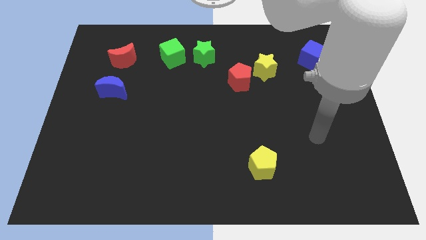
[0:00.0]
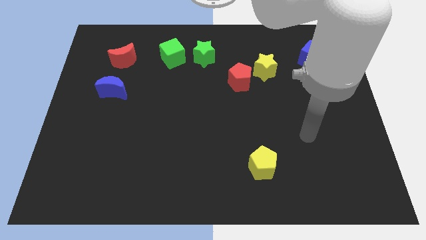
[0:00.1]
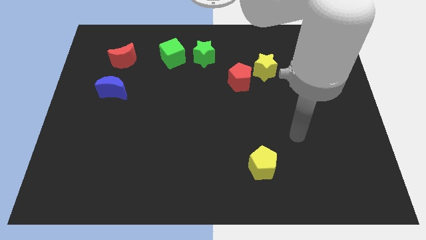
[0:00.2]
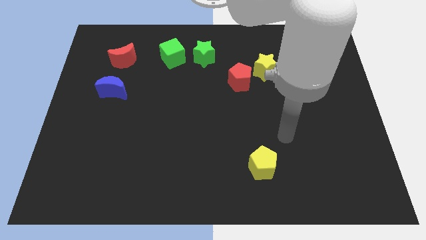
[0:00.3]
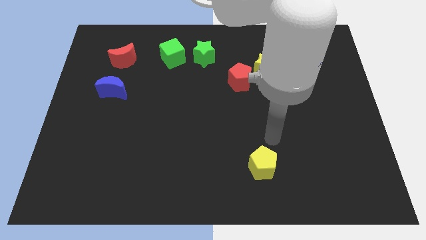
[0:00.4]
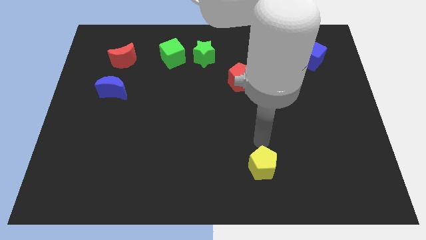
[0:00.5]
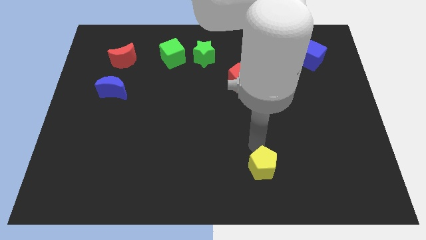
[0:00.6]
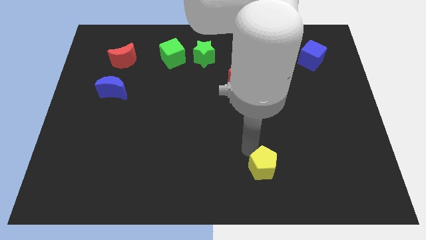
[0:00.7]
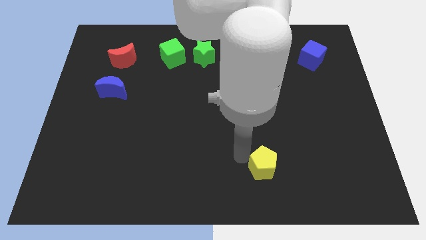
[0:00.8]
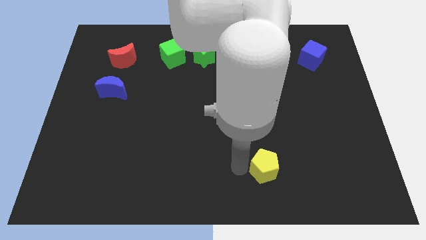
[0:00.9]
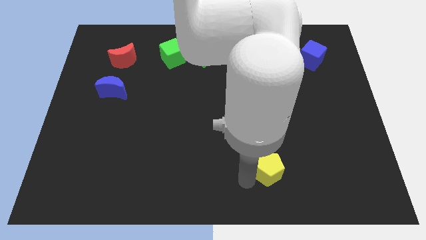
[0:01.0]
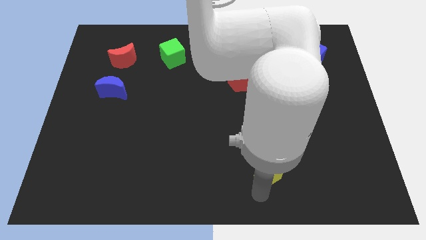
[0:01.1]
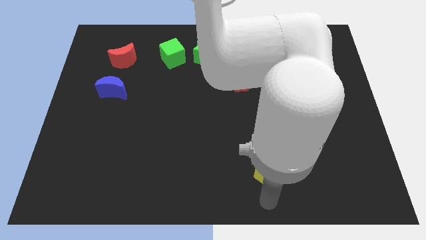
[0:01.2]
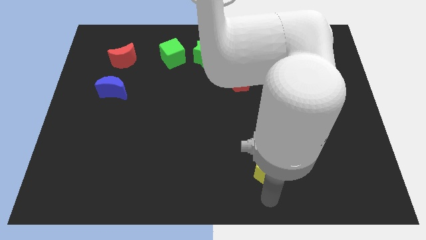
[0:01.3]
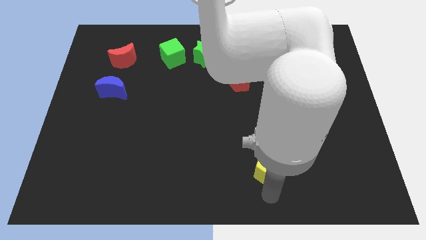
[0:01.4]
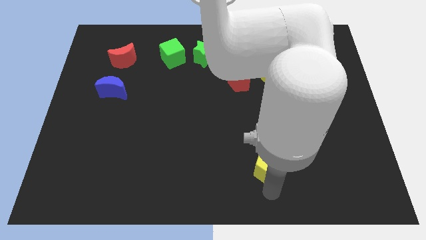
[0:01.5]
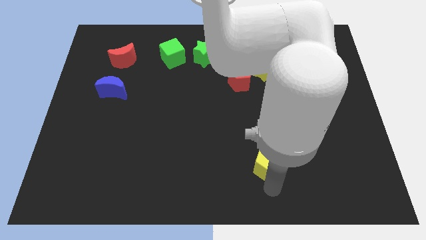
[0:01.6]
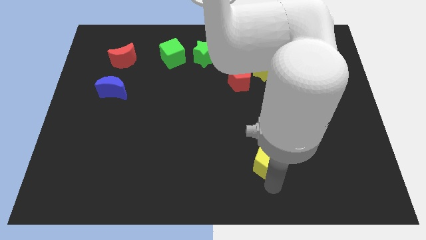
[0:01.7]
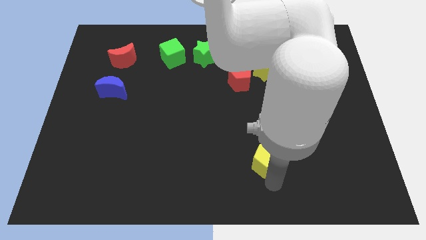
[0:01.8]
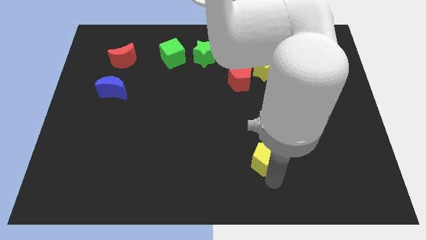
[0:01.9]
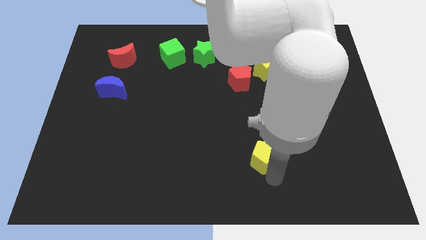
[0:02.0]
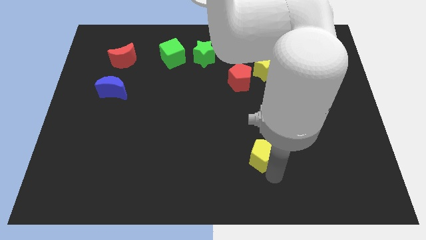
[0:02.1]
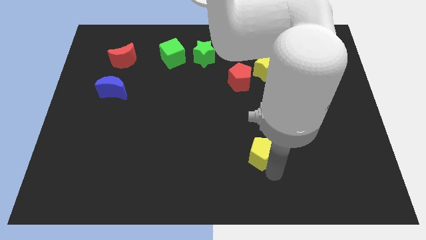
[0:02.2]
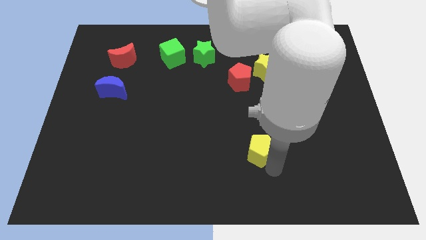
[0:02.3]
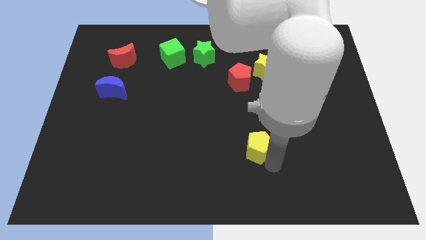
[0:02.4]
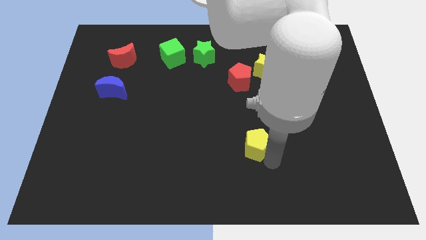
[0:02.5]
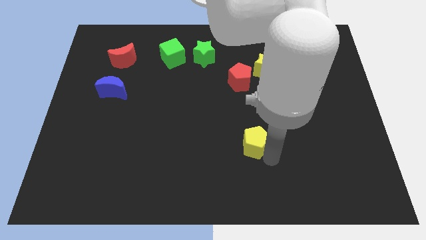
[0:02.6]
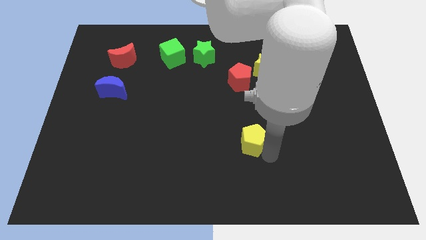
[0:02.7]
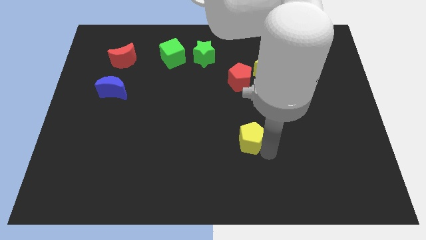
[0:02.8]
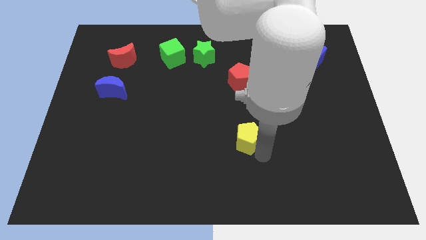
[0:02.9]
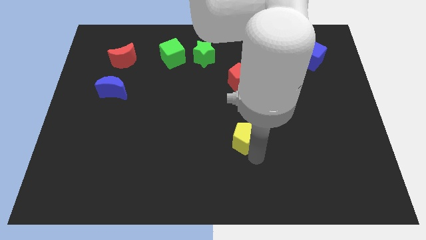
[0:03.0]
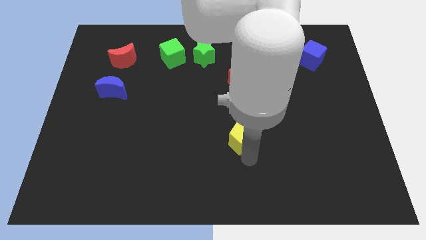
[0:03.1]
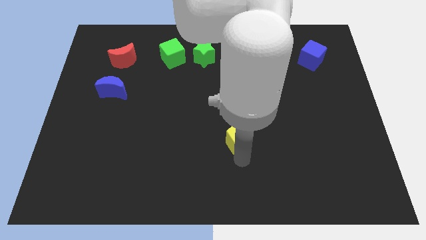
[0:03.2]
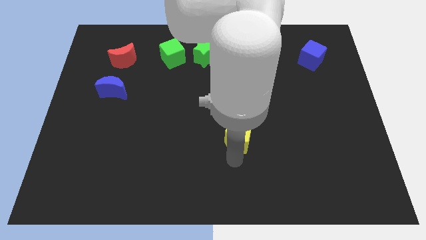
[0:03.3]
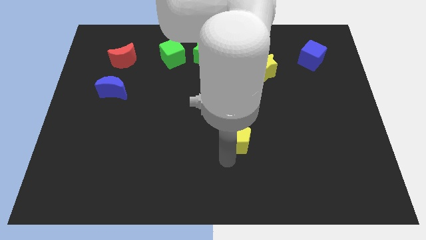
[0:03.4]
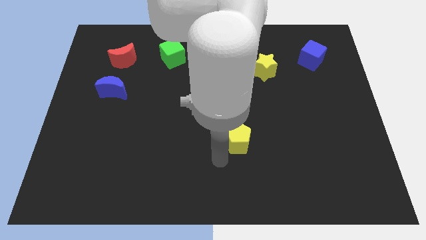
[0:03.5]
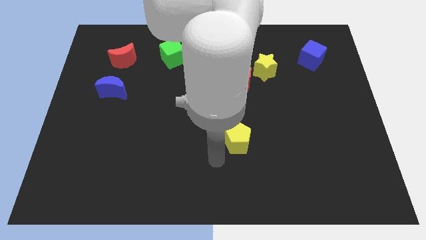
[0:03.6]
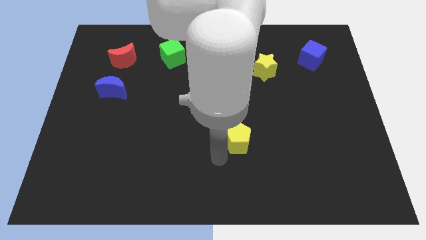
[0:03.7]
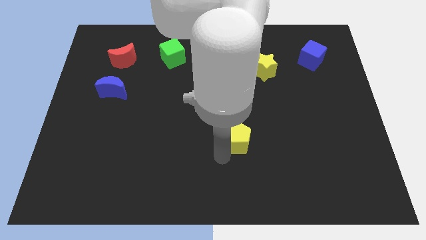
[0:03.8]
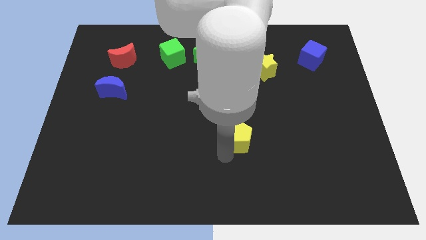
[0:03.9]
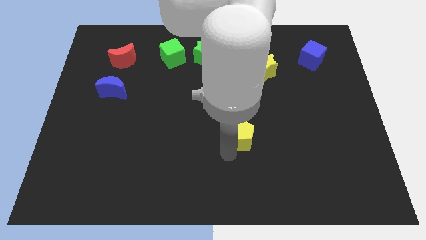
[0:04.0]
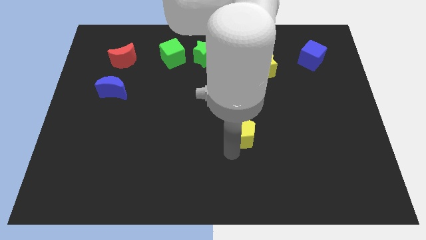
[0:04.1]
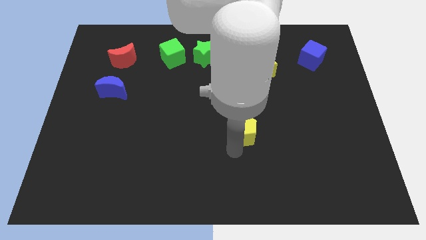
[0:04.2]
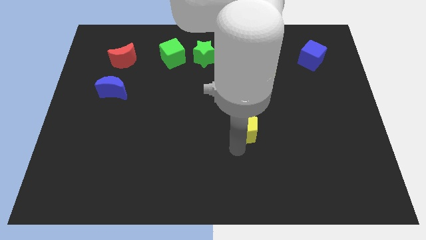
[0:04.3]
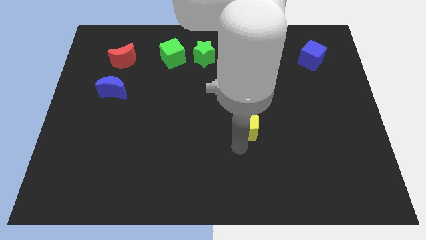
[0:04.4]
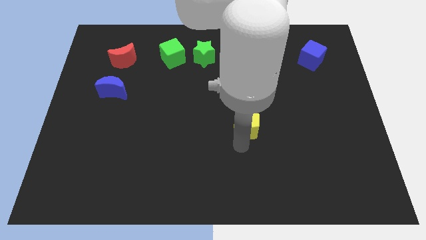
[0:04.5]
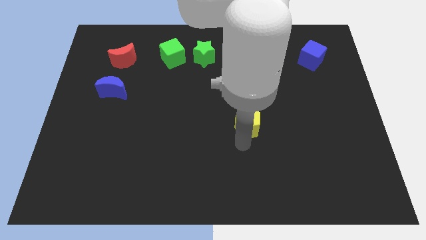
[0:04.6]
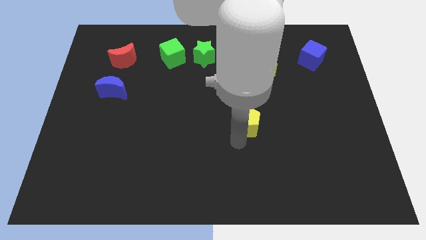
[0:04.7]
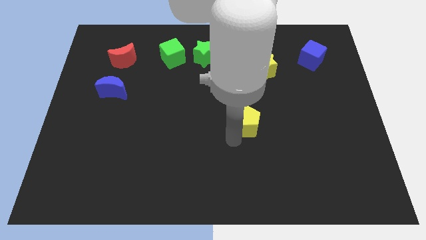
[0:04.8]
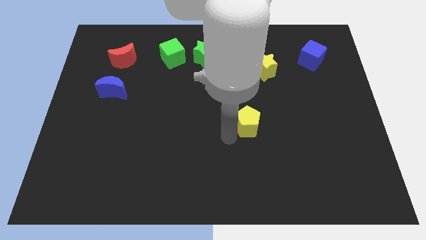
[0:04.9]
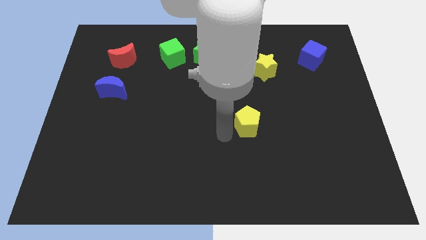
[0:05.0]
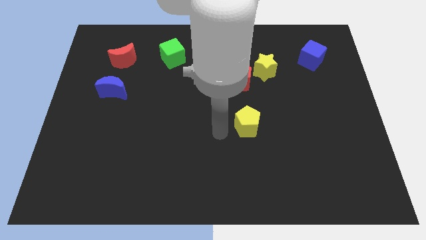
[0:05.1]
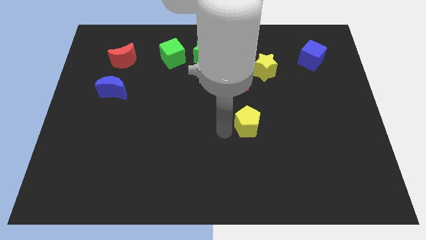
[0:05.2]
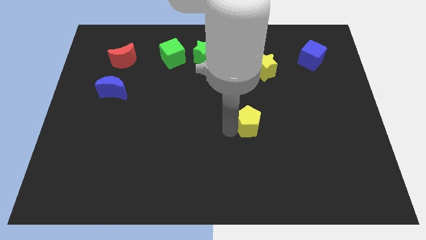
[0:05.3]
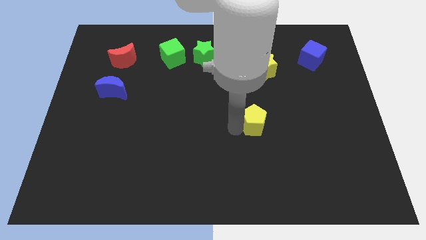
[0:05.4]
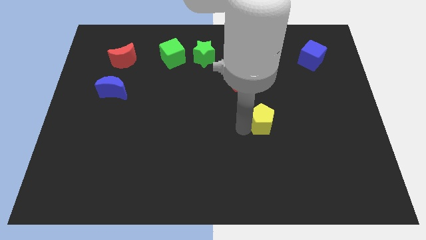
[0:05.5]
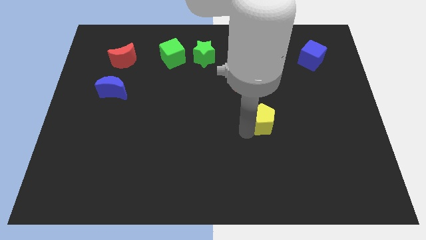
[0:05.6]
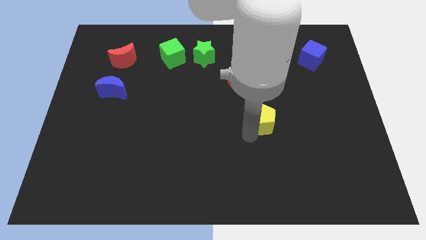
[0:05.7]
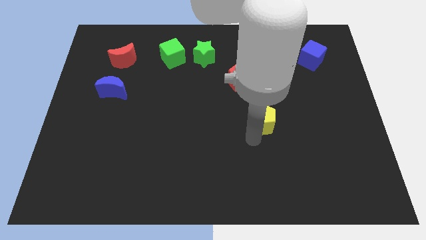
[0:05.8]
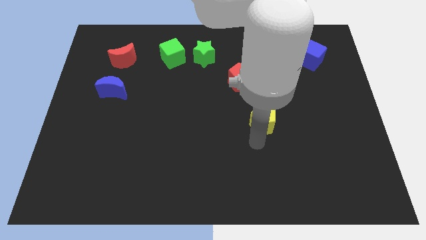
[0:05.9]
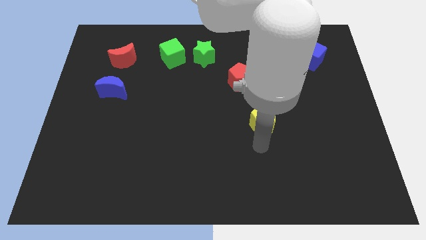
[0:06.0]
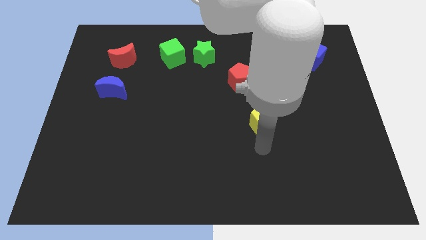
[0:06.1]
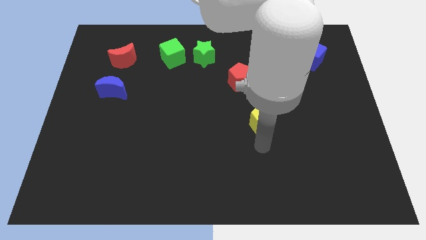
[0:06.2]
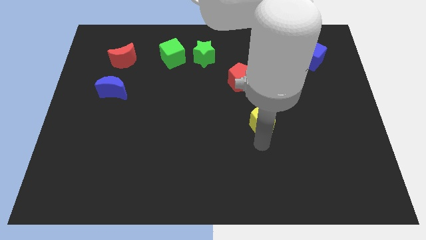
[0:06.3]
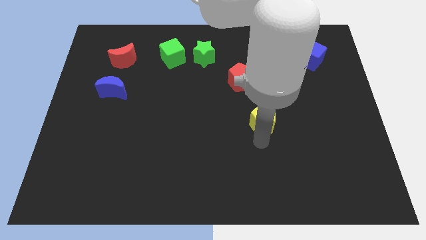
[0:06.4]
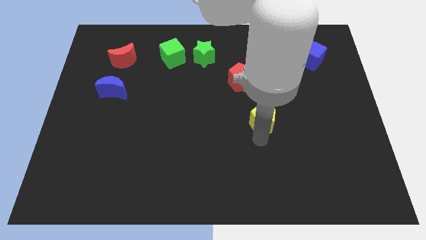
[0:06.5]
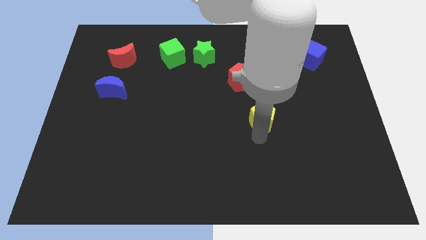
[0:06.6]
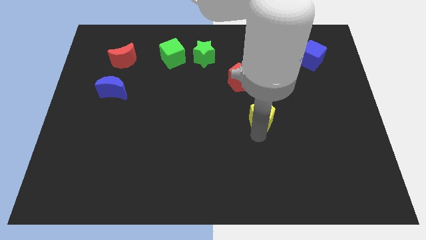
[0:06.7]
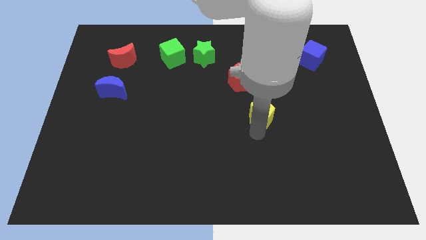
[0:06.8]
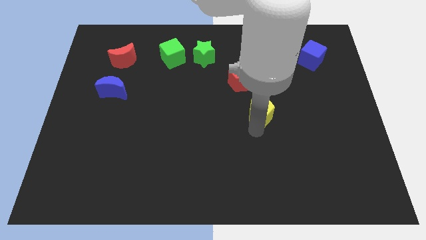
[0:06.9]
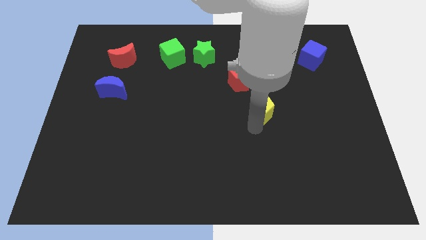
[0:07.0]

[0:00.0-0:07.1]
slide the yellow pentagon diagonally down and to the right of the red pentagon

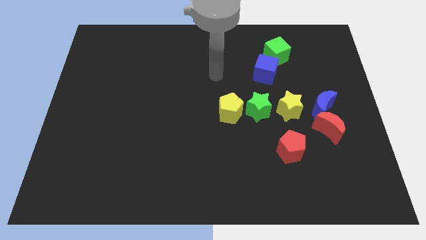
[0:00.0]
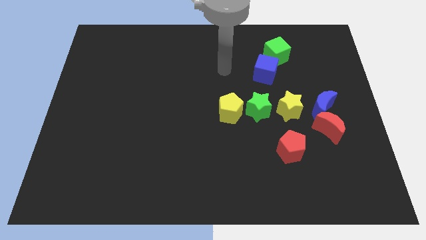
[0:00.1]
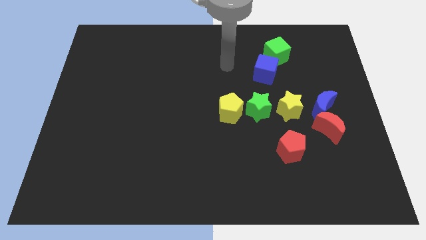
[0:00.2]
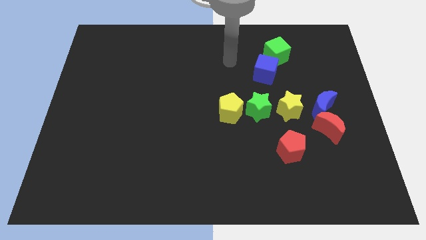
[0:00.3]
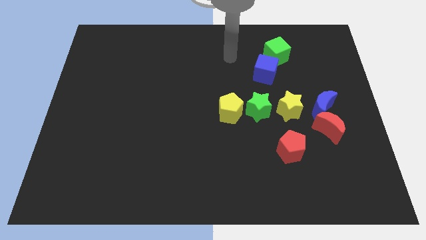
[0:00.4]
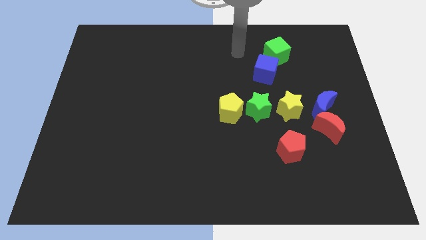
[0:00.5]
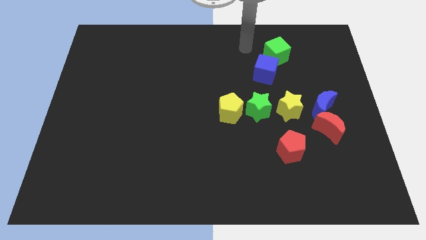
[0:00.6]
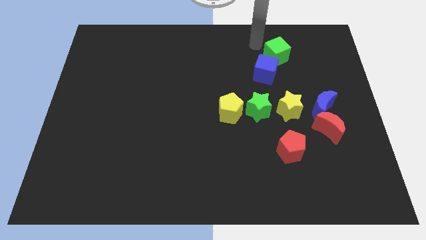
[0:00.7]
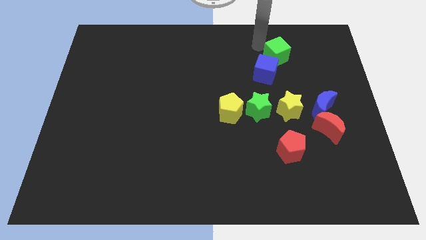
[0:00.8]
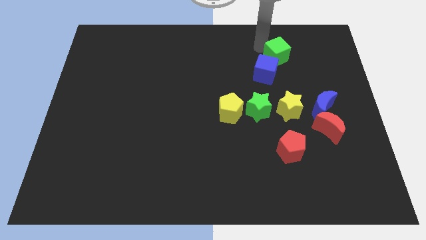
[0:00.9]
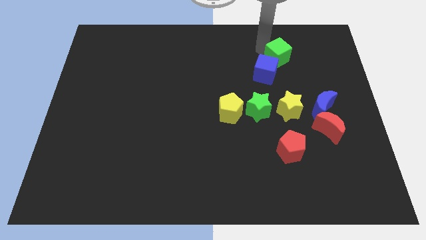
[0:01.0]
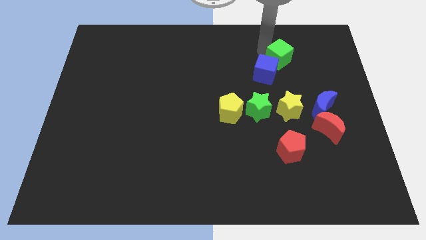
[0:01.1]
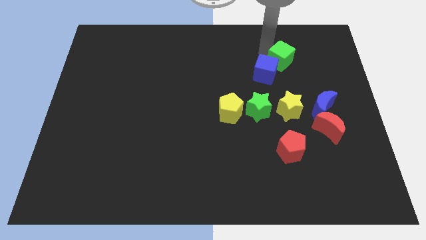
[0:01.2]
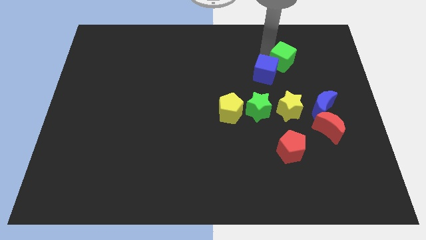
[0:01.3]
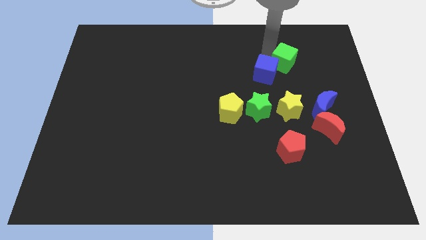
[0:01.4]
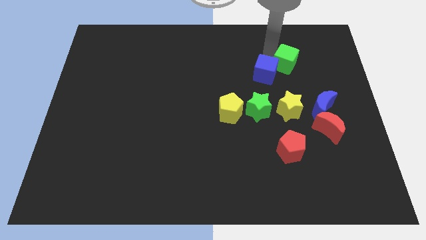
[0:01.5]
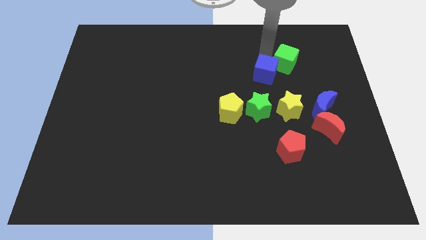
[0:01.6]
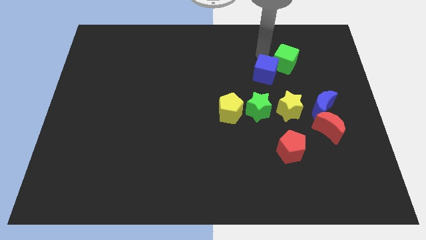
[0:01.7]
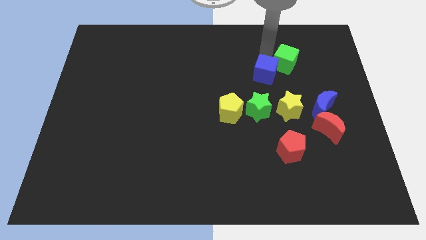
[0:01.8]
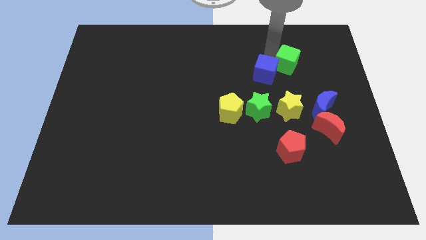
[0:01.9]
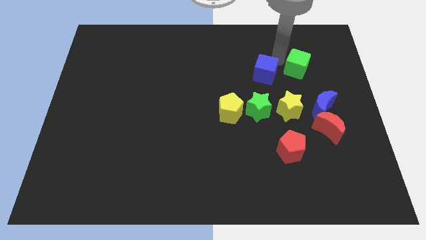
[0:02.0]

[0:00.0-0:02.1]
slide the green cube above the blue moon
